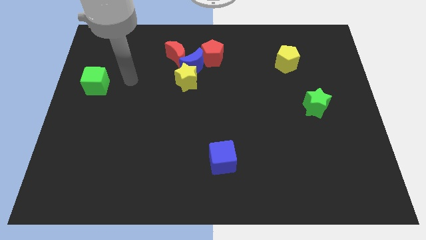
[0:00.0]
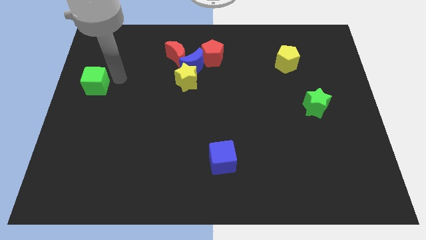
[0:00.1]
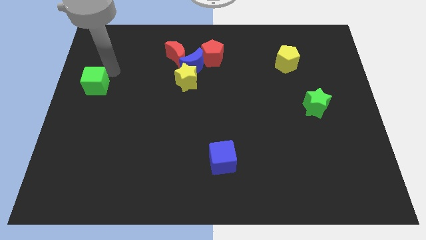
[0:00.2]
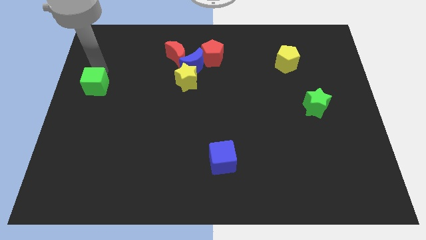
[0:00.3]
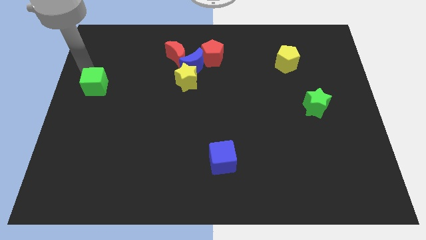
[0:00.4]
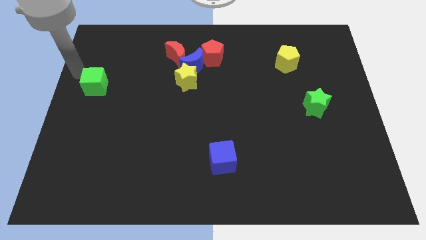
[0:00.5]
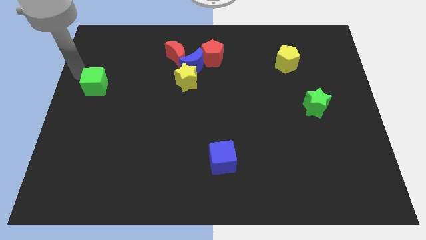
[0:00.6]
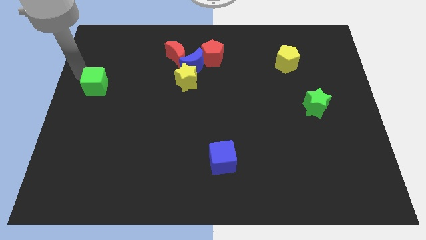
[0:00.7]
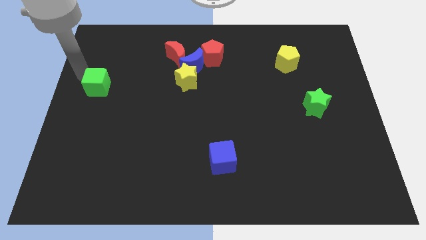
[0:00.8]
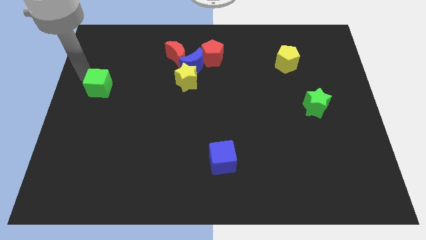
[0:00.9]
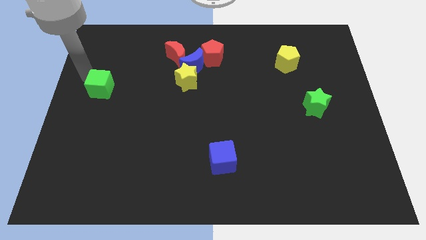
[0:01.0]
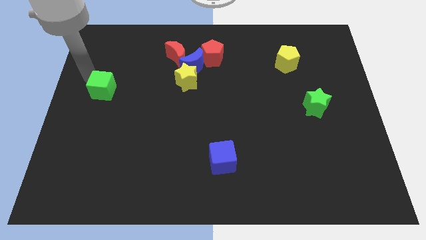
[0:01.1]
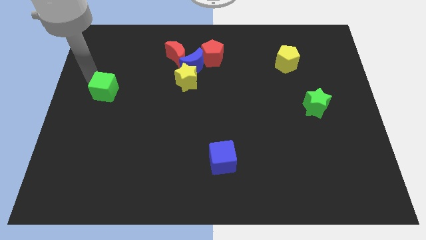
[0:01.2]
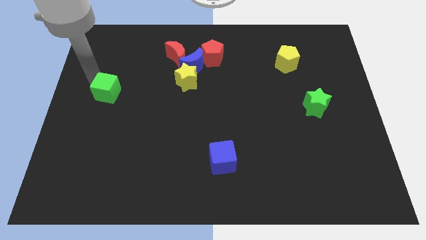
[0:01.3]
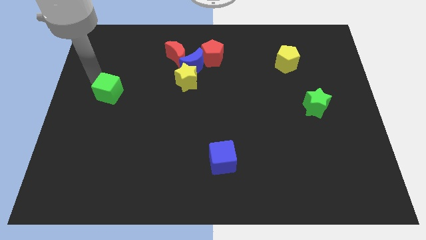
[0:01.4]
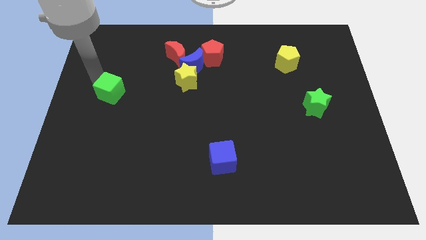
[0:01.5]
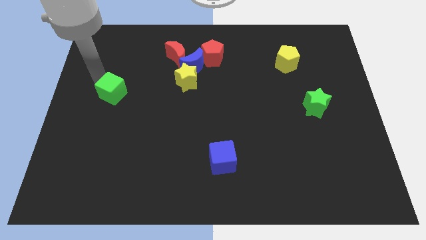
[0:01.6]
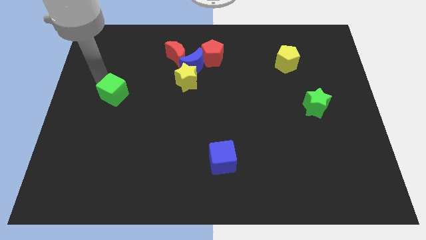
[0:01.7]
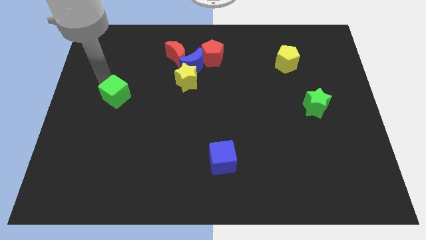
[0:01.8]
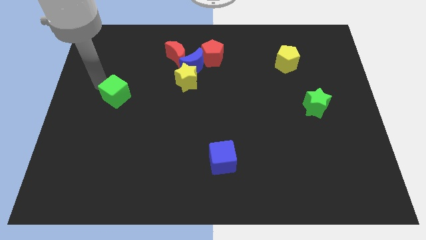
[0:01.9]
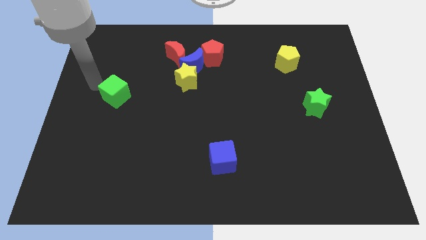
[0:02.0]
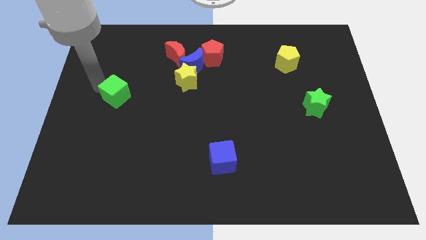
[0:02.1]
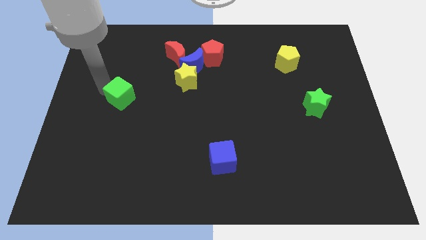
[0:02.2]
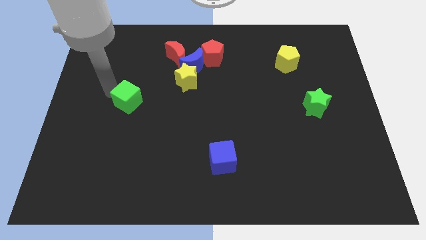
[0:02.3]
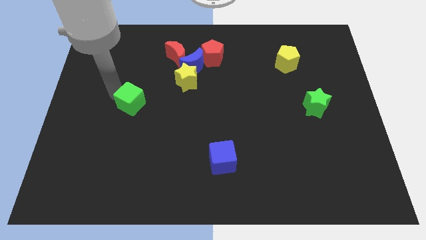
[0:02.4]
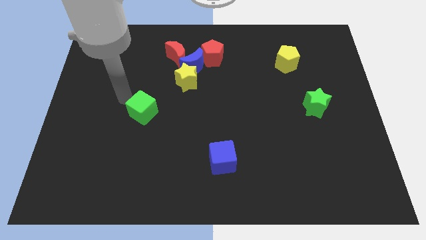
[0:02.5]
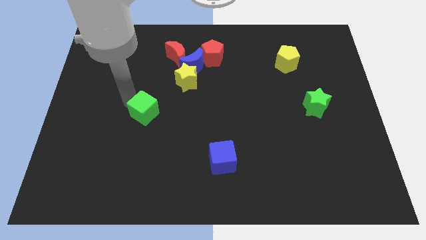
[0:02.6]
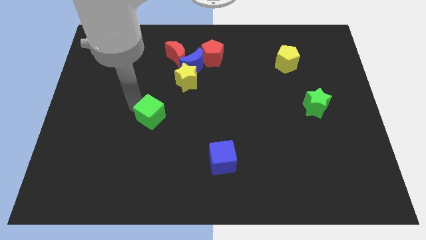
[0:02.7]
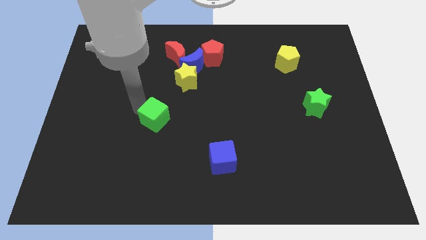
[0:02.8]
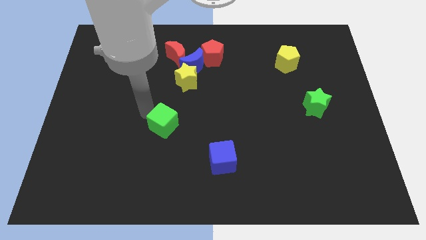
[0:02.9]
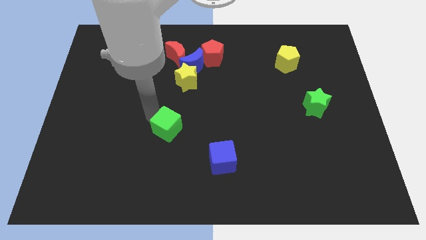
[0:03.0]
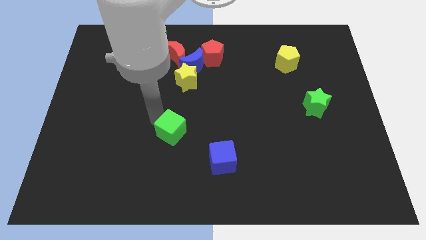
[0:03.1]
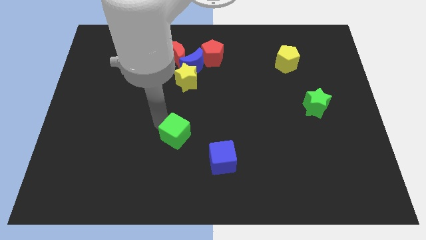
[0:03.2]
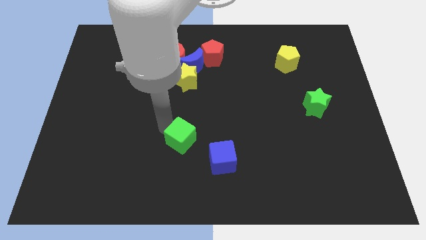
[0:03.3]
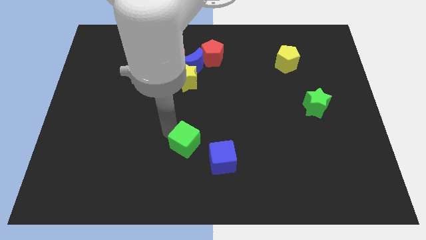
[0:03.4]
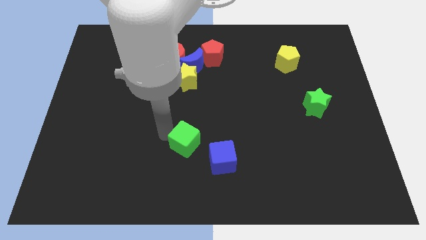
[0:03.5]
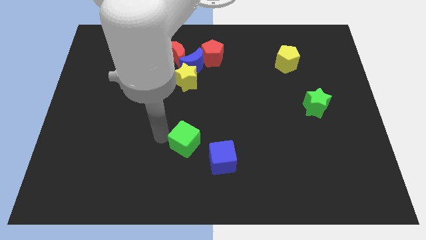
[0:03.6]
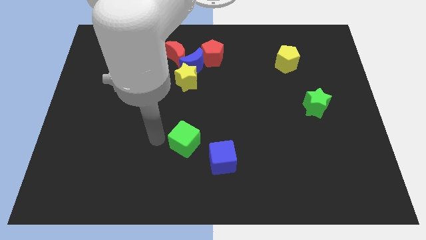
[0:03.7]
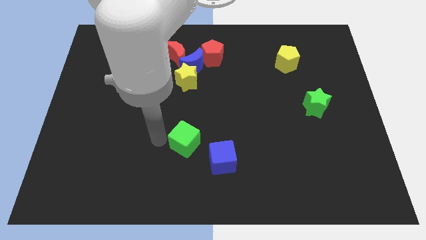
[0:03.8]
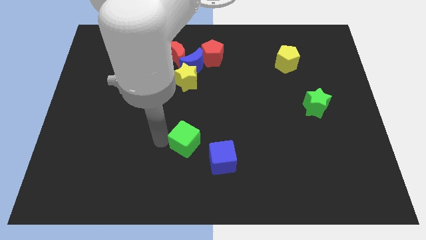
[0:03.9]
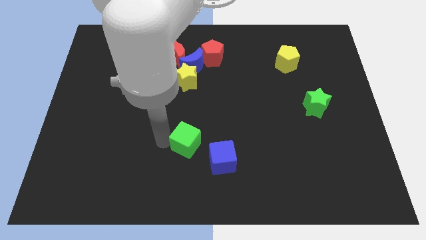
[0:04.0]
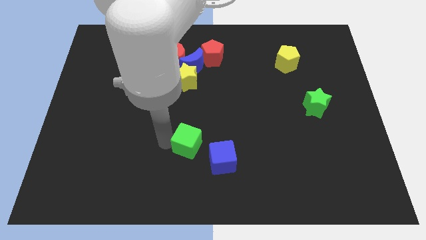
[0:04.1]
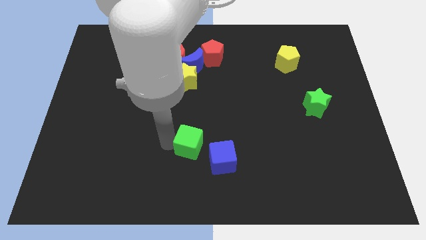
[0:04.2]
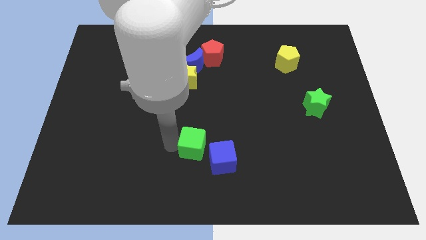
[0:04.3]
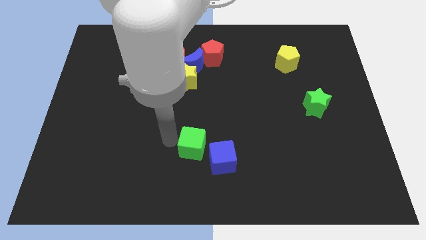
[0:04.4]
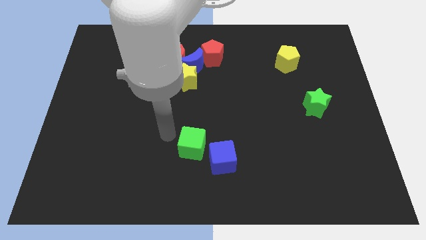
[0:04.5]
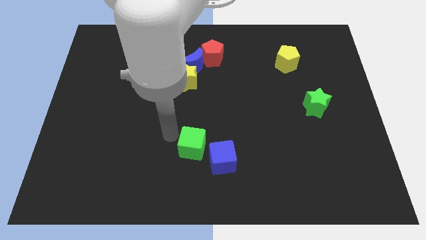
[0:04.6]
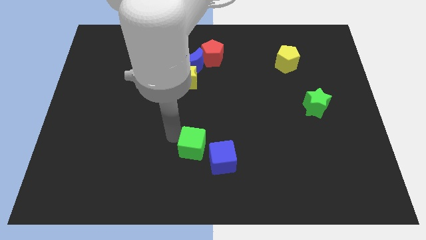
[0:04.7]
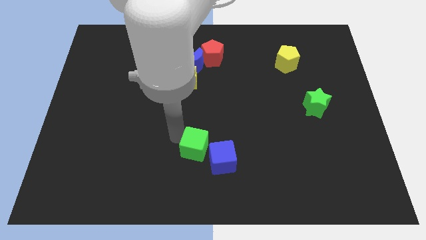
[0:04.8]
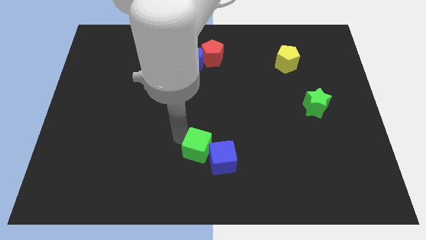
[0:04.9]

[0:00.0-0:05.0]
slide the green cube to the blue cube

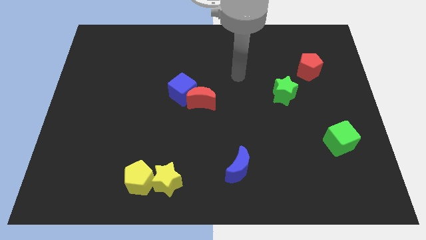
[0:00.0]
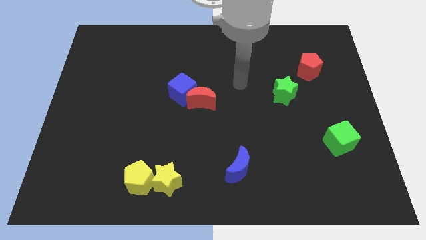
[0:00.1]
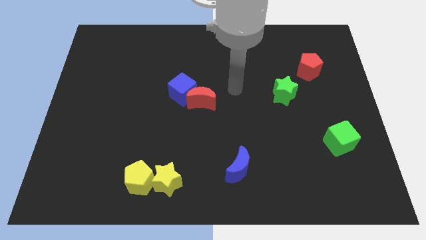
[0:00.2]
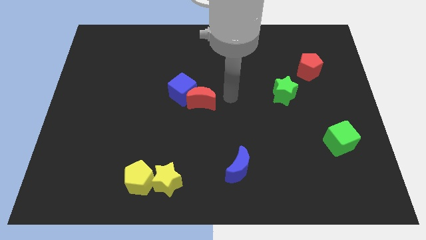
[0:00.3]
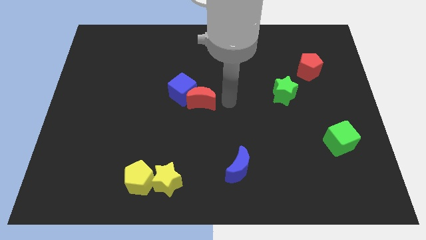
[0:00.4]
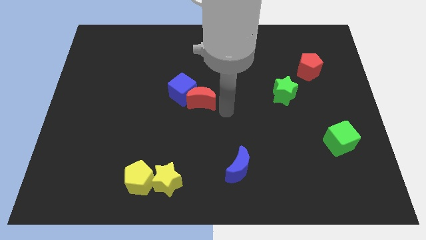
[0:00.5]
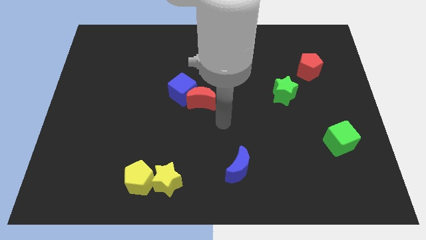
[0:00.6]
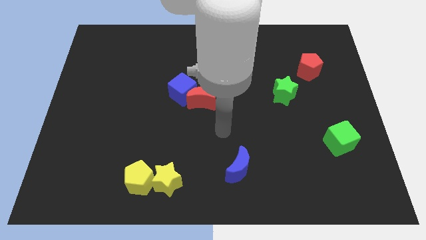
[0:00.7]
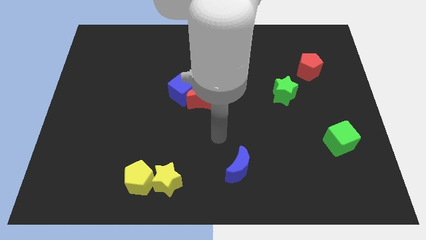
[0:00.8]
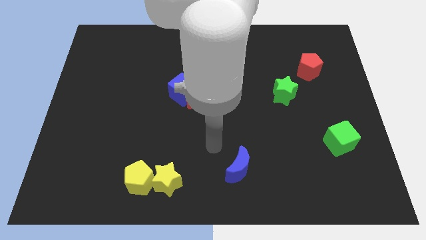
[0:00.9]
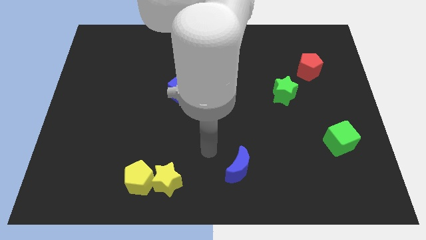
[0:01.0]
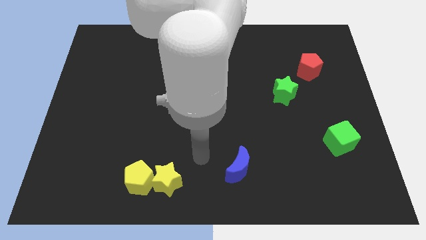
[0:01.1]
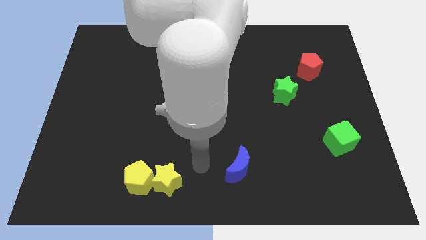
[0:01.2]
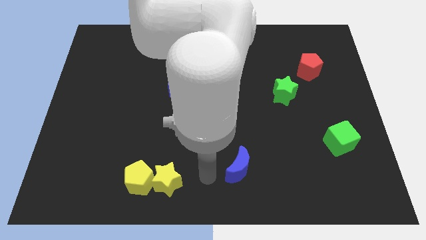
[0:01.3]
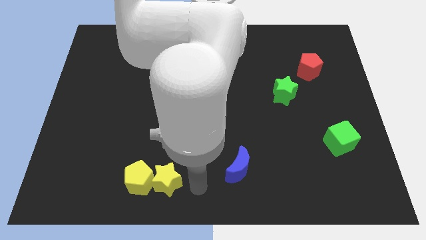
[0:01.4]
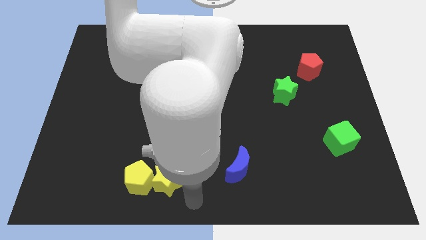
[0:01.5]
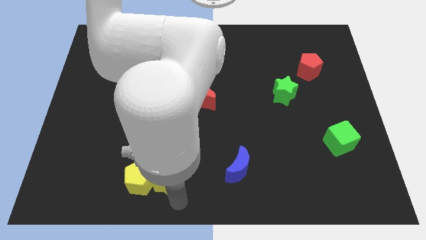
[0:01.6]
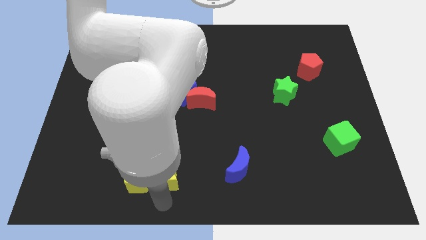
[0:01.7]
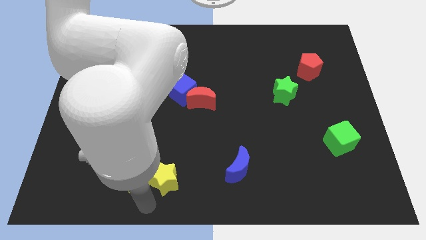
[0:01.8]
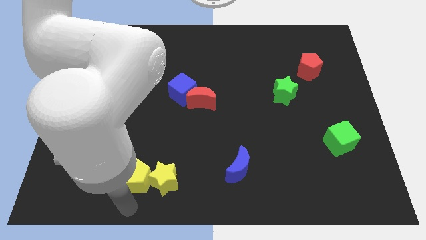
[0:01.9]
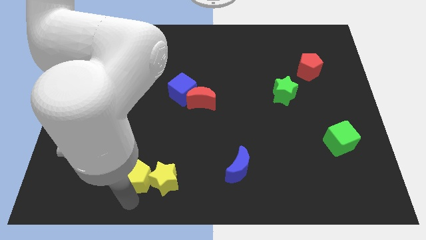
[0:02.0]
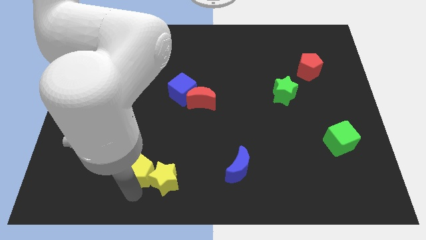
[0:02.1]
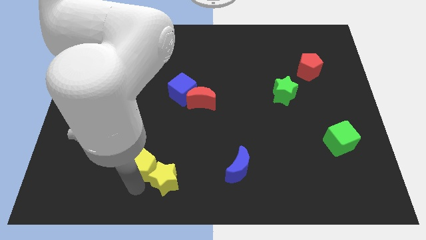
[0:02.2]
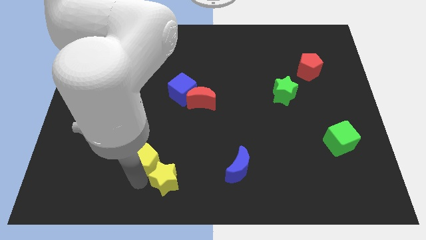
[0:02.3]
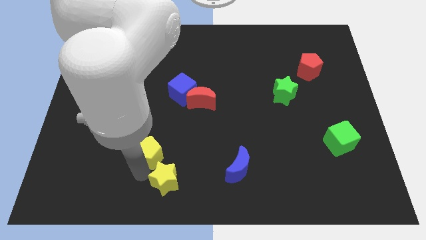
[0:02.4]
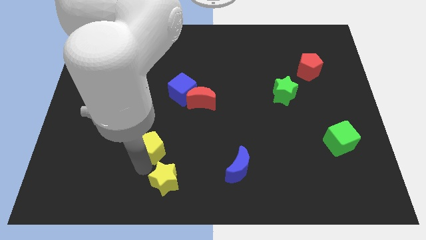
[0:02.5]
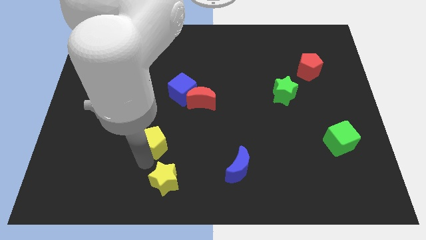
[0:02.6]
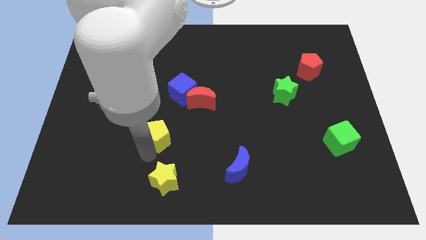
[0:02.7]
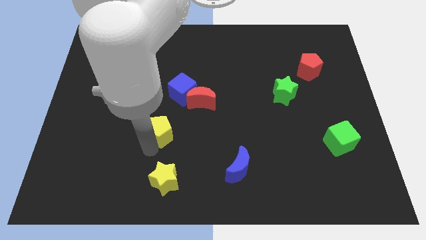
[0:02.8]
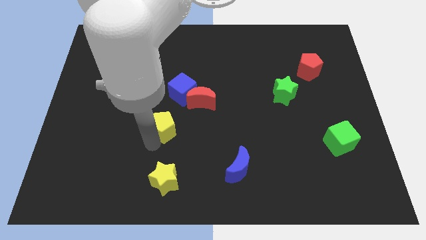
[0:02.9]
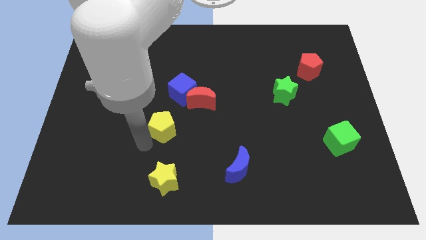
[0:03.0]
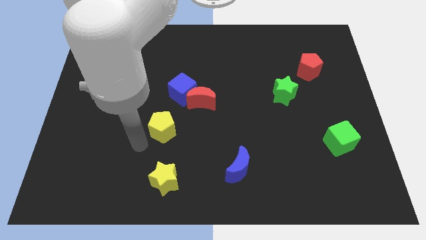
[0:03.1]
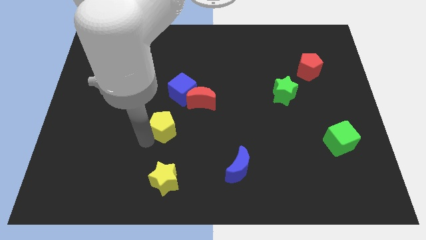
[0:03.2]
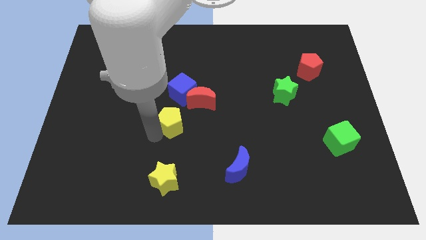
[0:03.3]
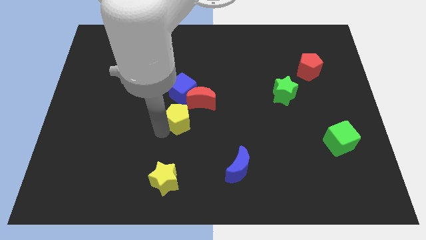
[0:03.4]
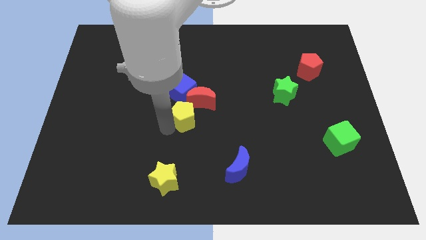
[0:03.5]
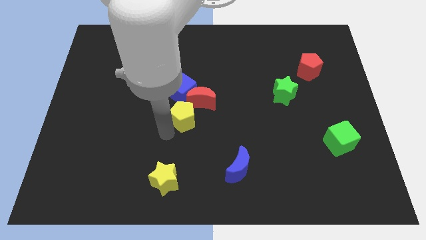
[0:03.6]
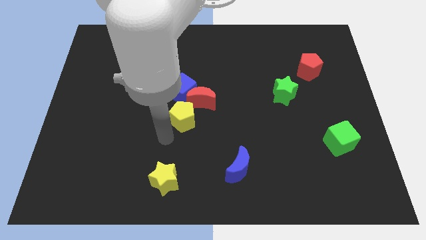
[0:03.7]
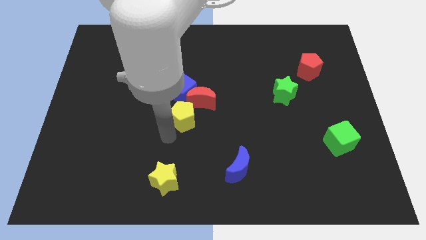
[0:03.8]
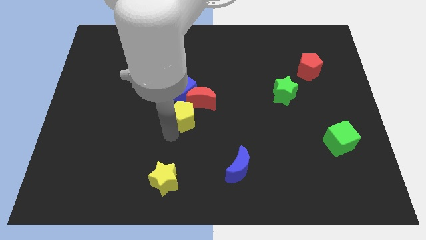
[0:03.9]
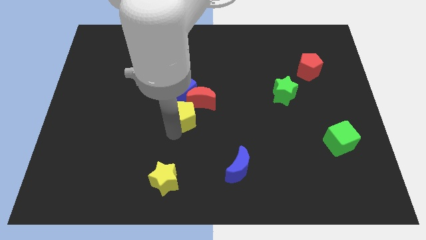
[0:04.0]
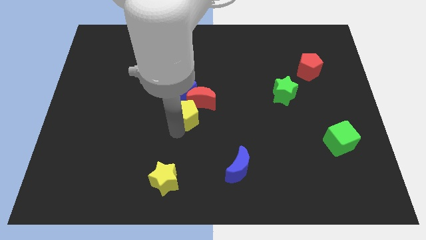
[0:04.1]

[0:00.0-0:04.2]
slide the yellow pentagon next to the red moon
